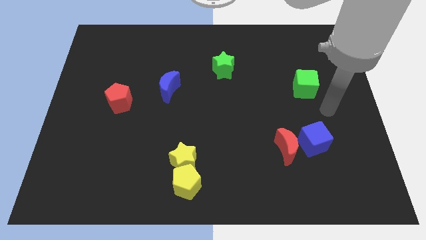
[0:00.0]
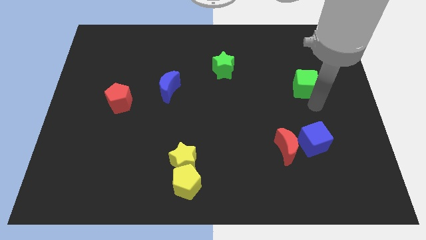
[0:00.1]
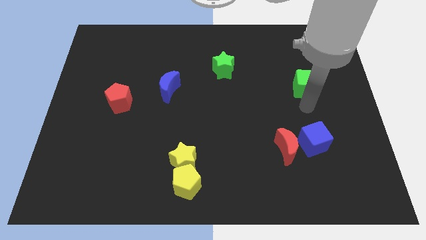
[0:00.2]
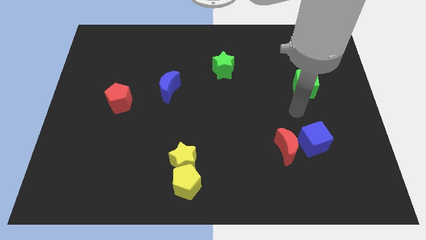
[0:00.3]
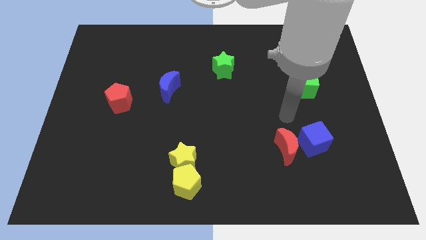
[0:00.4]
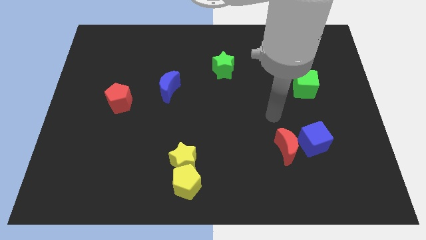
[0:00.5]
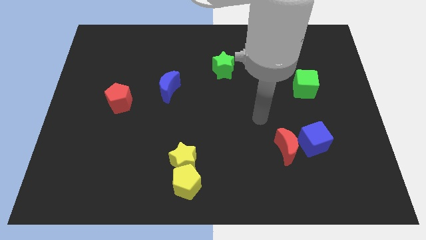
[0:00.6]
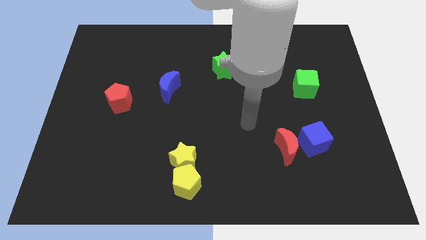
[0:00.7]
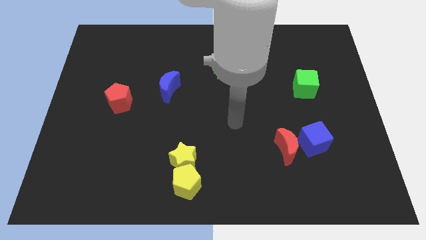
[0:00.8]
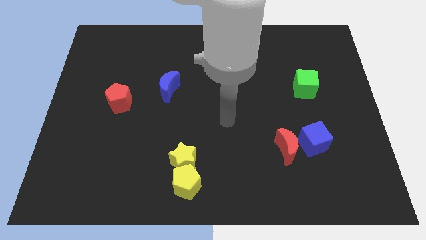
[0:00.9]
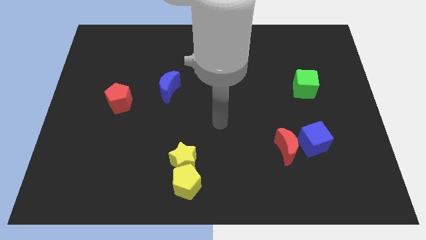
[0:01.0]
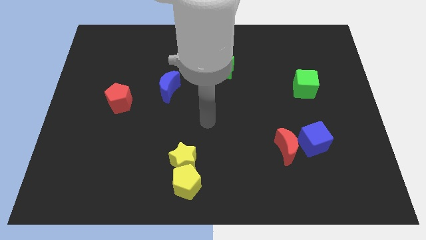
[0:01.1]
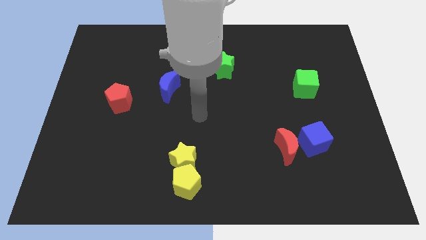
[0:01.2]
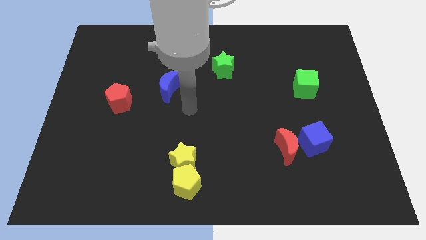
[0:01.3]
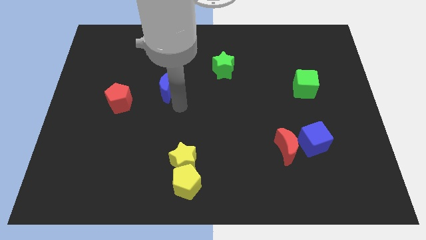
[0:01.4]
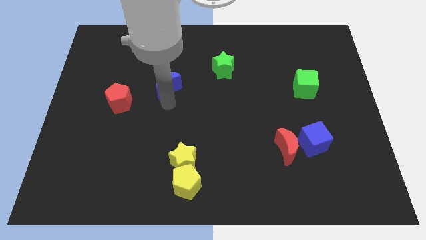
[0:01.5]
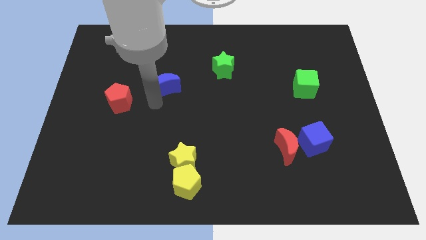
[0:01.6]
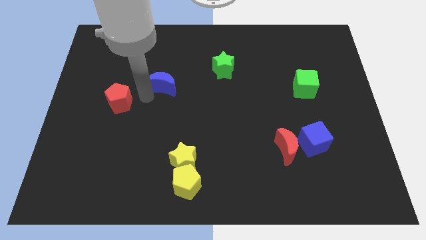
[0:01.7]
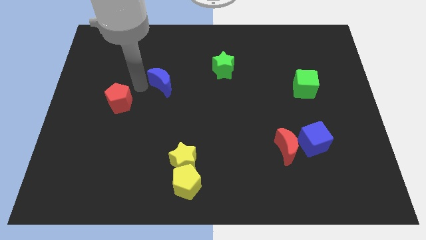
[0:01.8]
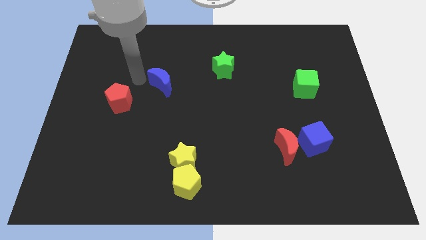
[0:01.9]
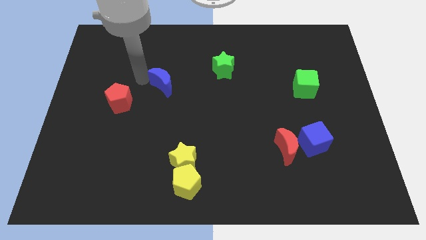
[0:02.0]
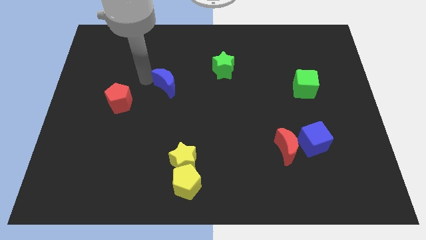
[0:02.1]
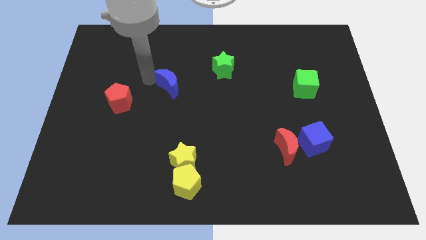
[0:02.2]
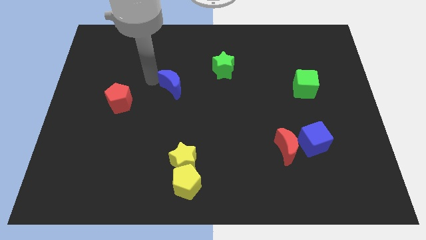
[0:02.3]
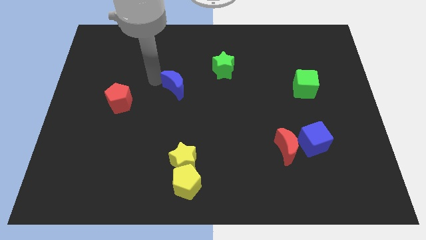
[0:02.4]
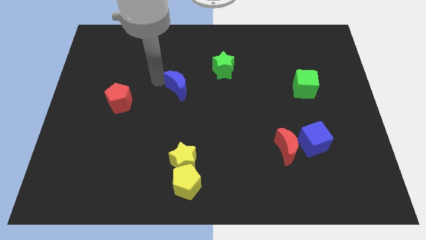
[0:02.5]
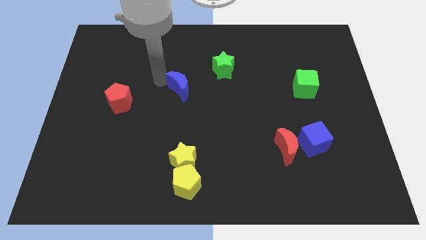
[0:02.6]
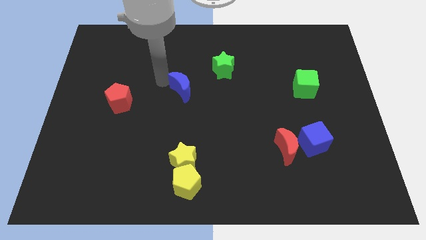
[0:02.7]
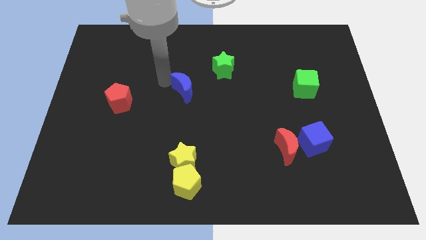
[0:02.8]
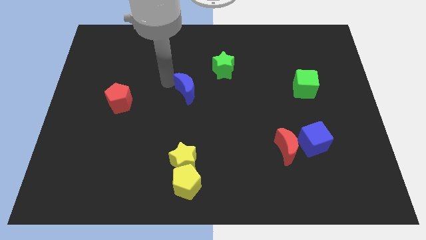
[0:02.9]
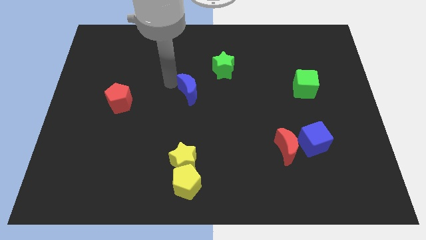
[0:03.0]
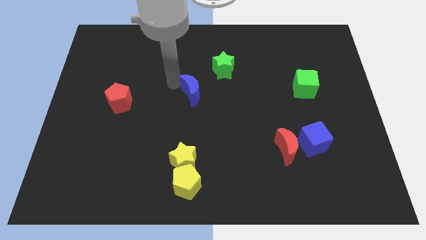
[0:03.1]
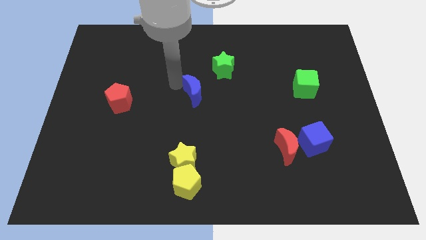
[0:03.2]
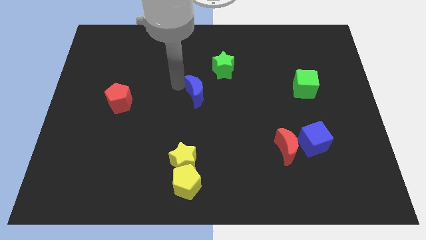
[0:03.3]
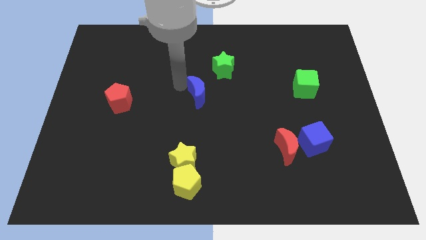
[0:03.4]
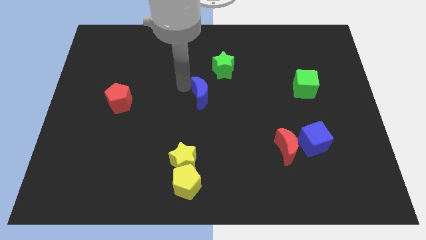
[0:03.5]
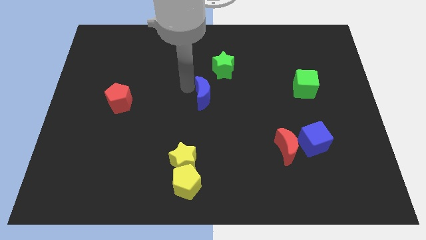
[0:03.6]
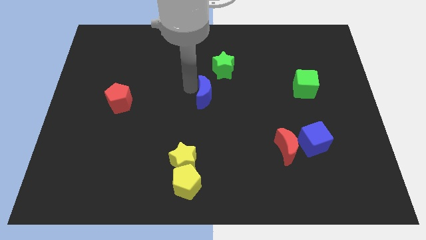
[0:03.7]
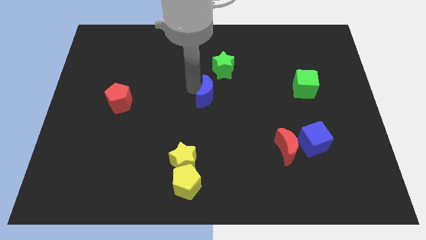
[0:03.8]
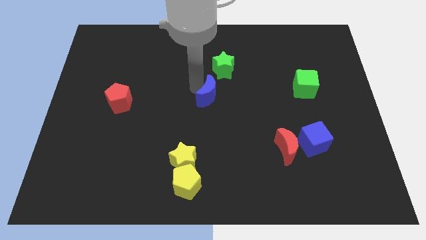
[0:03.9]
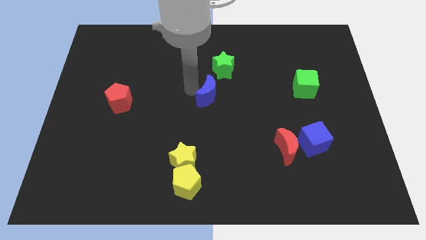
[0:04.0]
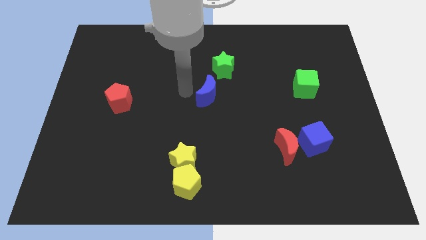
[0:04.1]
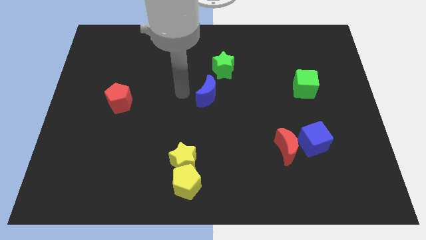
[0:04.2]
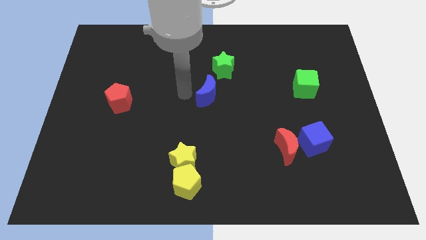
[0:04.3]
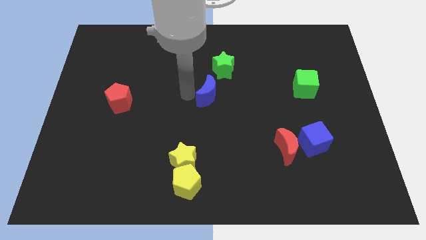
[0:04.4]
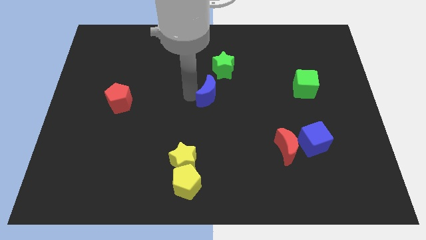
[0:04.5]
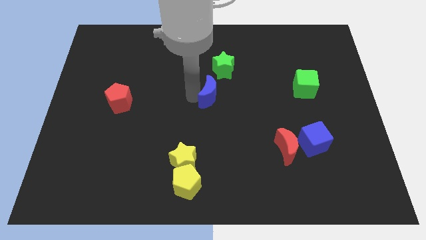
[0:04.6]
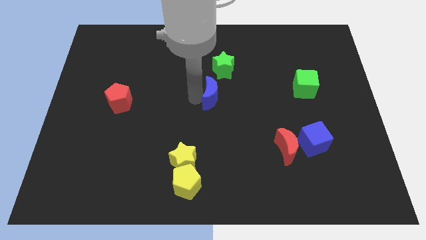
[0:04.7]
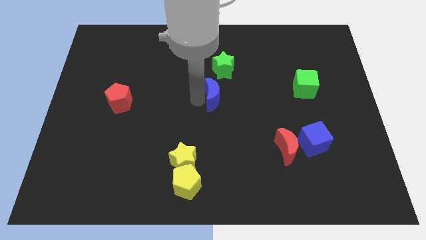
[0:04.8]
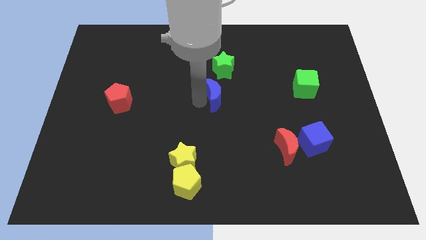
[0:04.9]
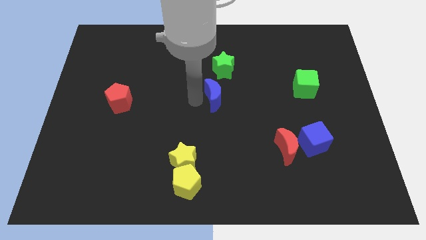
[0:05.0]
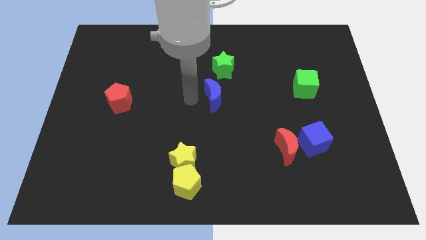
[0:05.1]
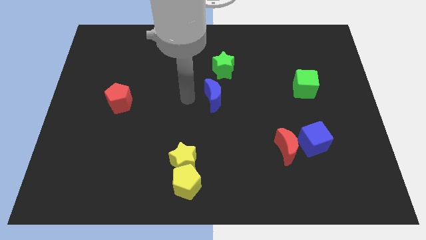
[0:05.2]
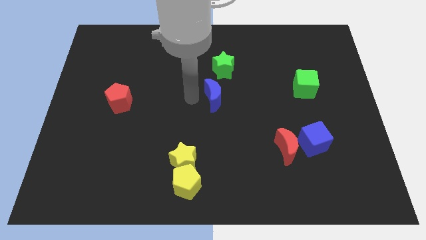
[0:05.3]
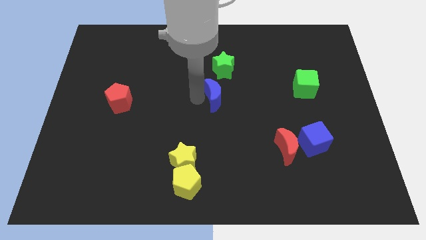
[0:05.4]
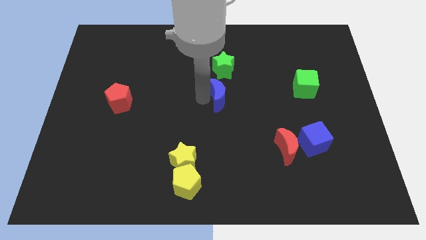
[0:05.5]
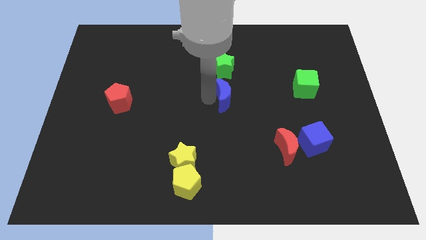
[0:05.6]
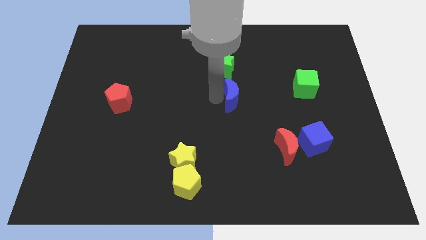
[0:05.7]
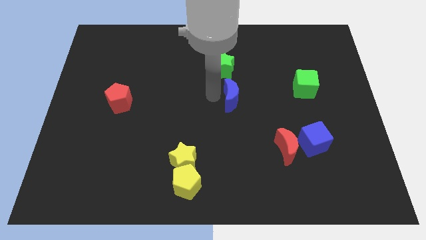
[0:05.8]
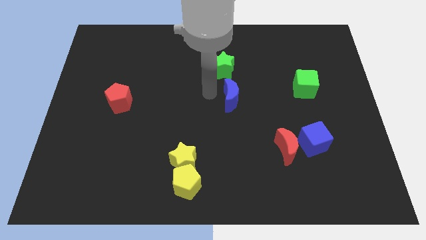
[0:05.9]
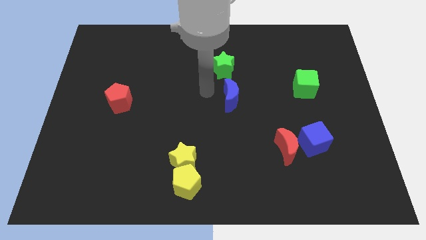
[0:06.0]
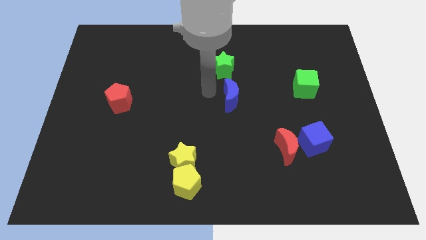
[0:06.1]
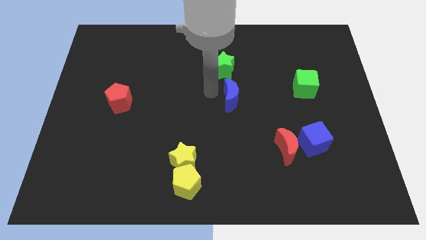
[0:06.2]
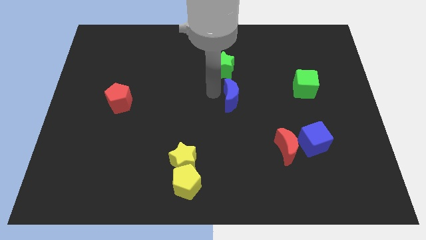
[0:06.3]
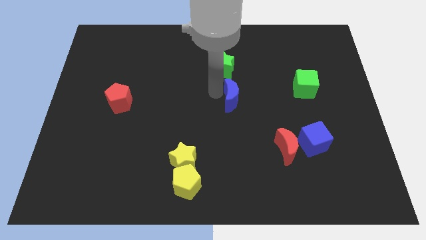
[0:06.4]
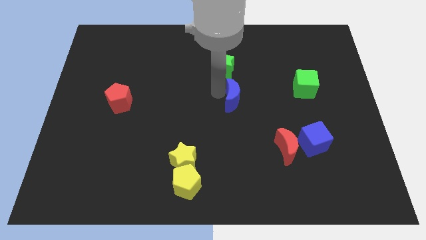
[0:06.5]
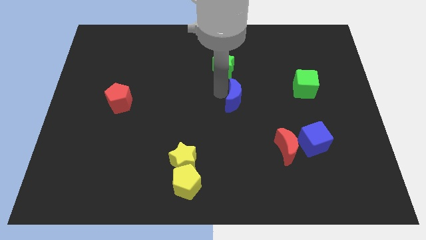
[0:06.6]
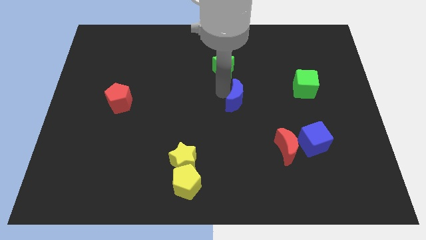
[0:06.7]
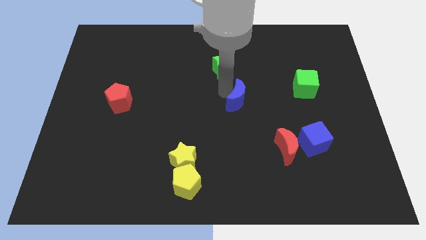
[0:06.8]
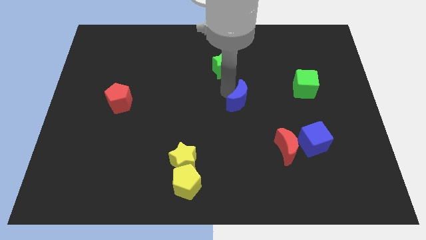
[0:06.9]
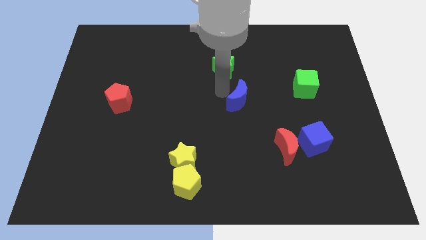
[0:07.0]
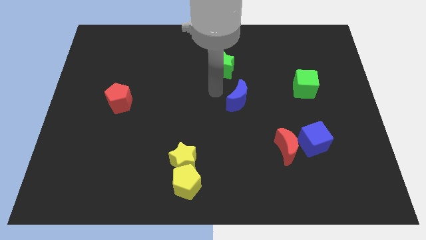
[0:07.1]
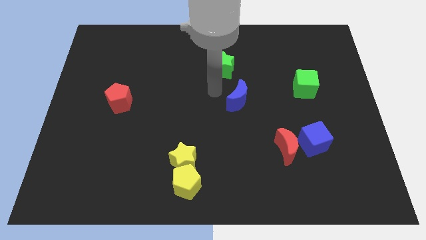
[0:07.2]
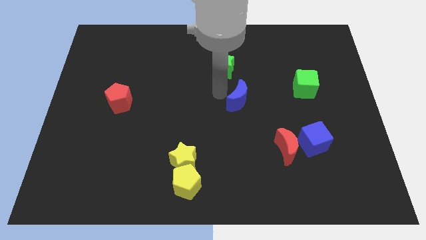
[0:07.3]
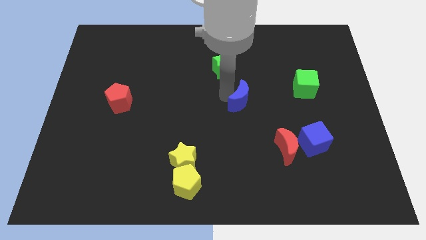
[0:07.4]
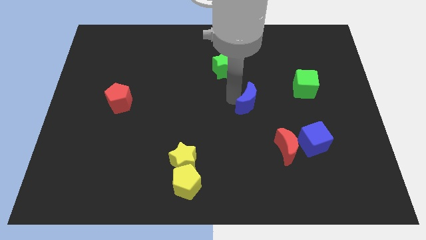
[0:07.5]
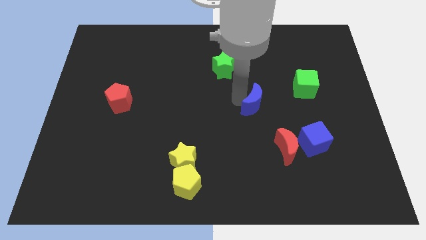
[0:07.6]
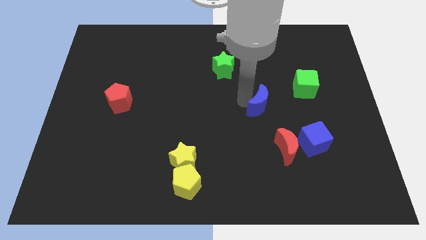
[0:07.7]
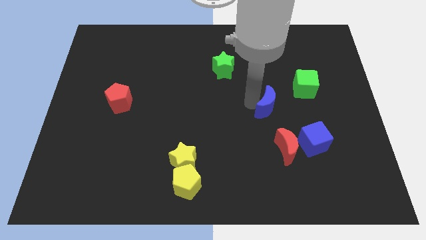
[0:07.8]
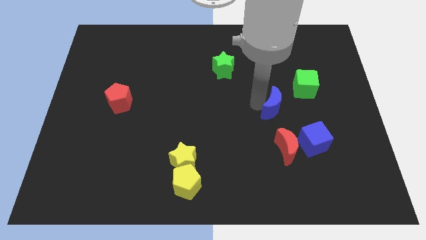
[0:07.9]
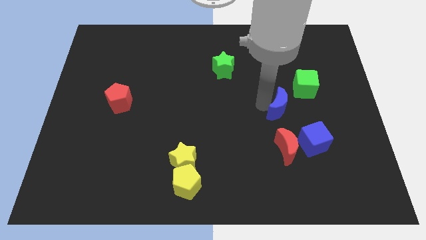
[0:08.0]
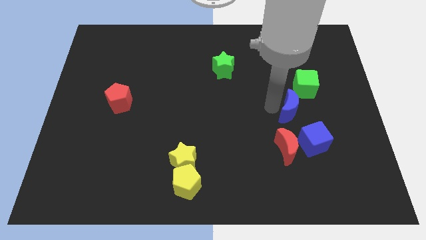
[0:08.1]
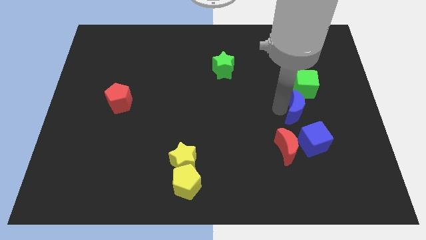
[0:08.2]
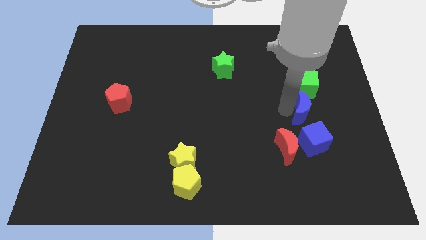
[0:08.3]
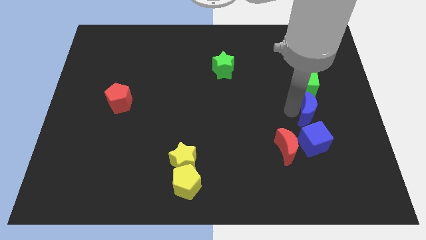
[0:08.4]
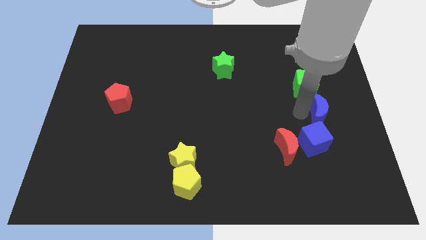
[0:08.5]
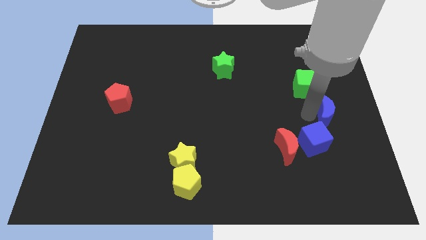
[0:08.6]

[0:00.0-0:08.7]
push the blue moon to the right side
